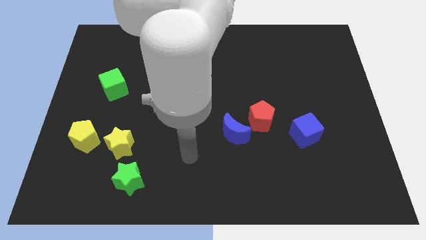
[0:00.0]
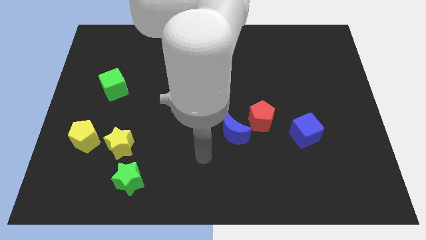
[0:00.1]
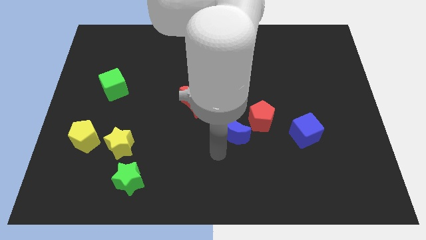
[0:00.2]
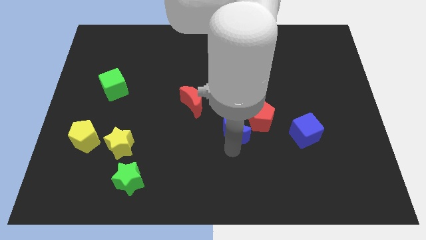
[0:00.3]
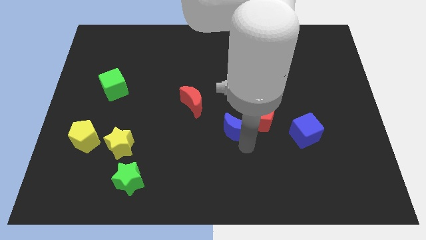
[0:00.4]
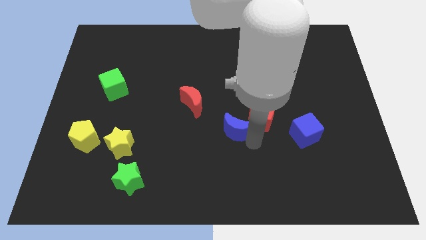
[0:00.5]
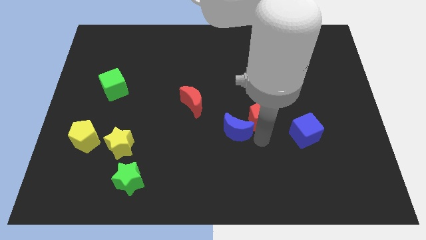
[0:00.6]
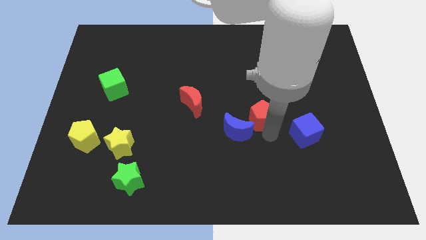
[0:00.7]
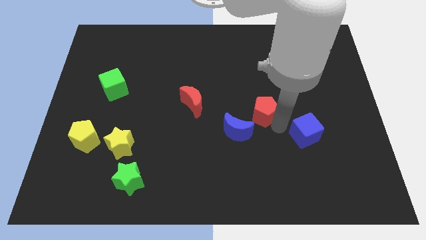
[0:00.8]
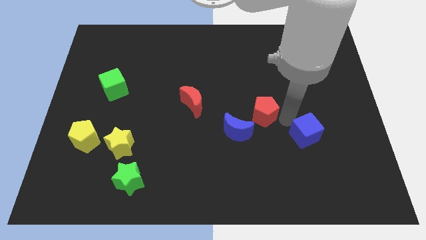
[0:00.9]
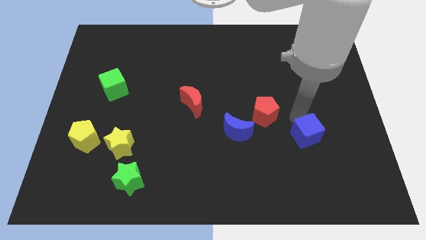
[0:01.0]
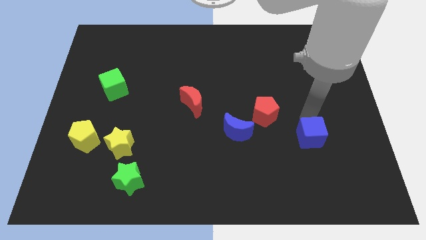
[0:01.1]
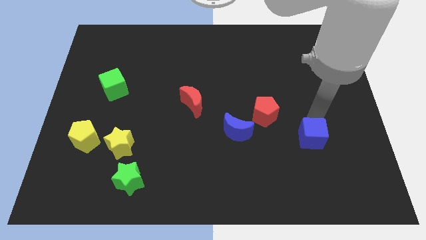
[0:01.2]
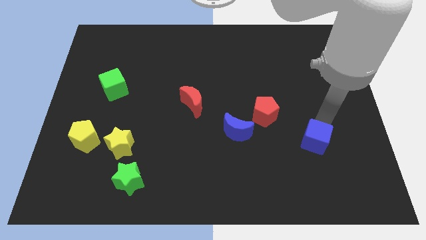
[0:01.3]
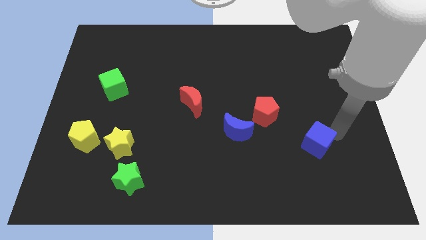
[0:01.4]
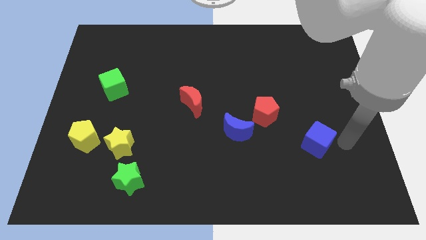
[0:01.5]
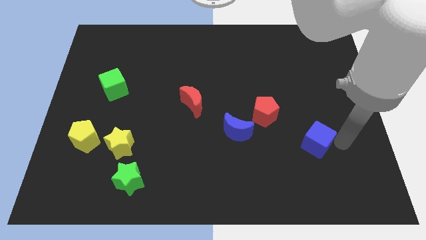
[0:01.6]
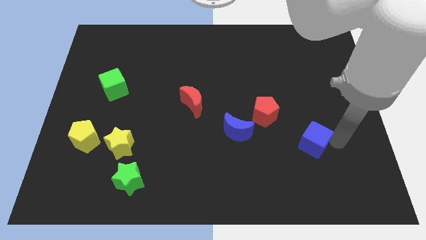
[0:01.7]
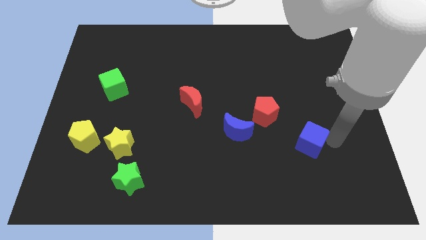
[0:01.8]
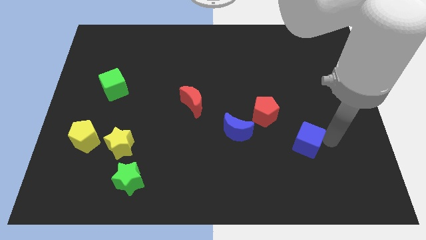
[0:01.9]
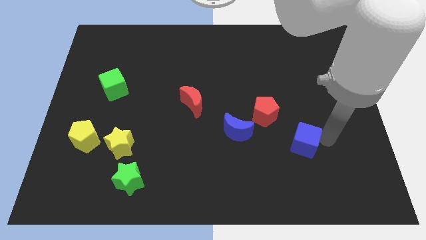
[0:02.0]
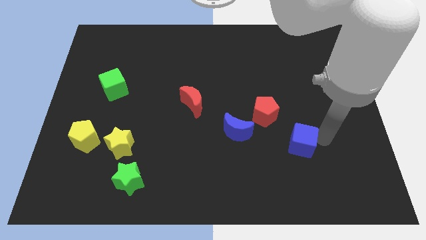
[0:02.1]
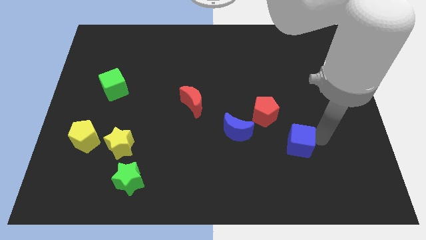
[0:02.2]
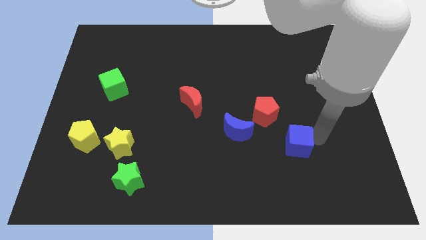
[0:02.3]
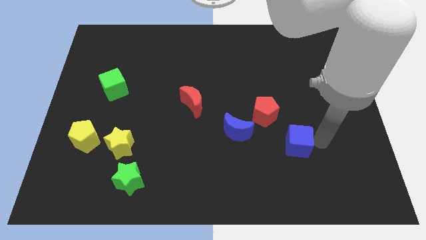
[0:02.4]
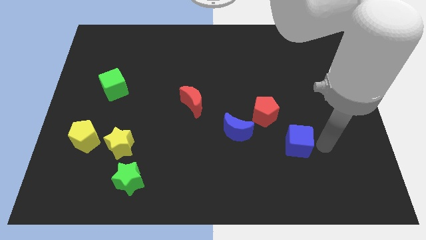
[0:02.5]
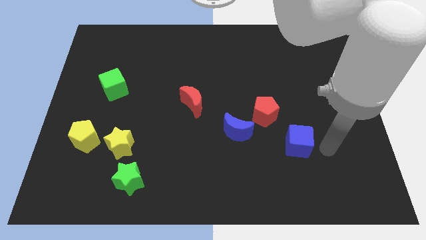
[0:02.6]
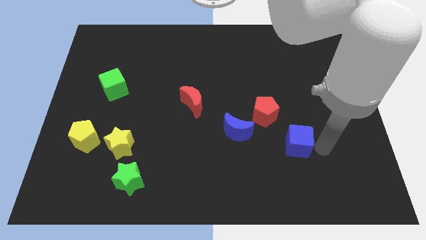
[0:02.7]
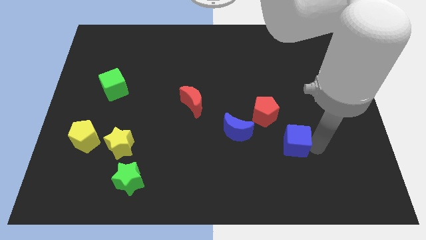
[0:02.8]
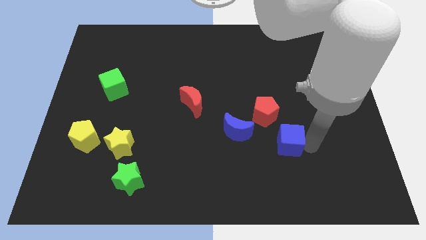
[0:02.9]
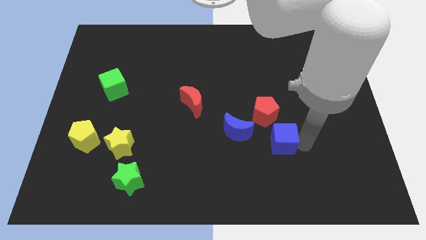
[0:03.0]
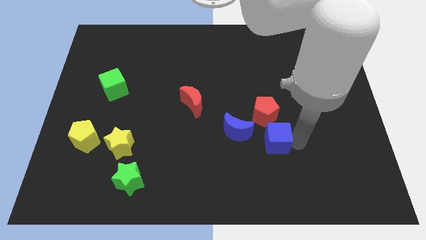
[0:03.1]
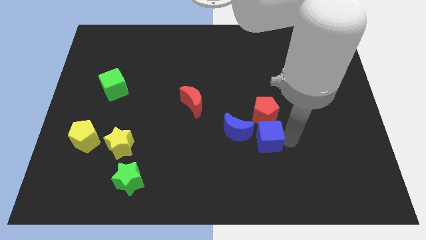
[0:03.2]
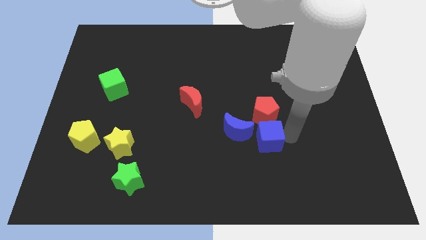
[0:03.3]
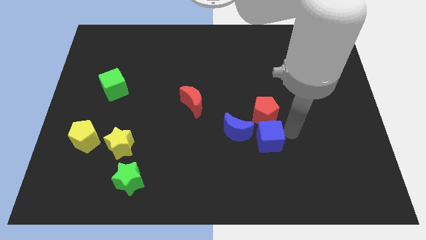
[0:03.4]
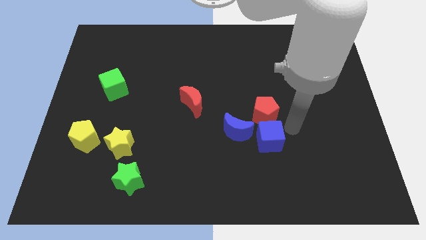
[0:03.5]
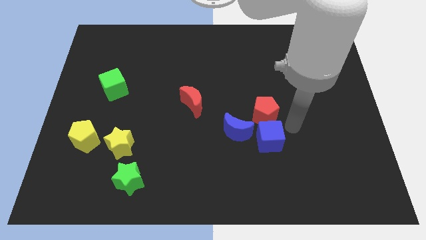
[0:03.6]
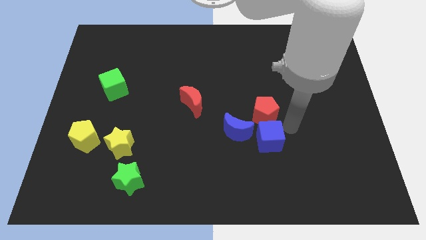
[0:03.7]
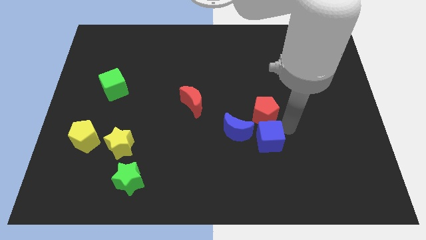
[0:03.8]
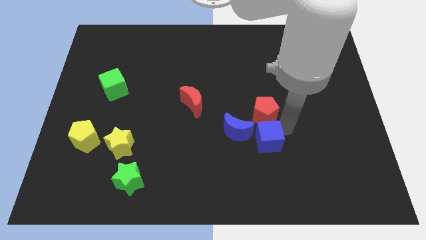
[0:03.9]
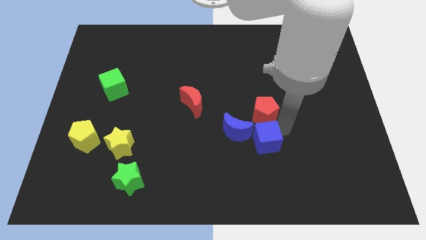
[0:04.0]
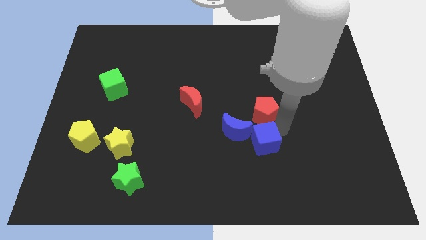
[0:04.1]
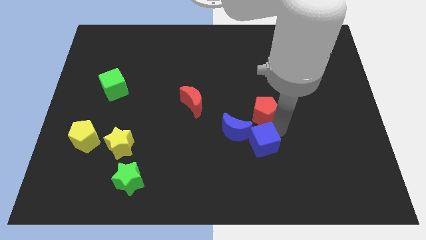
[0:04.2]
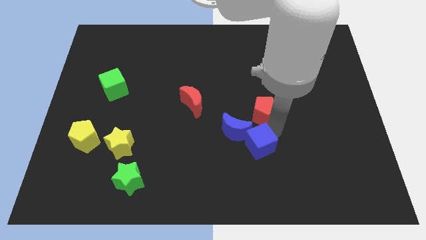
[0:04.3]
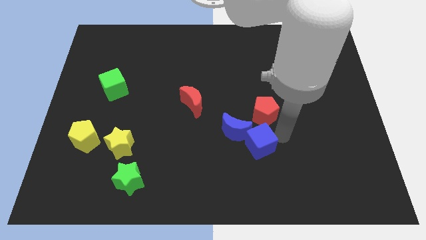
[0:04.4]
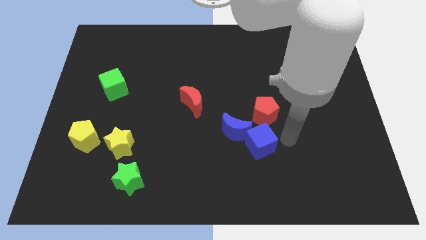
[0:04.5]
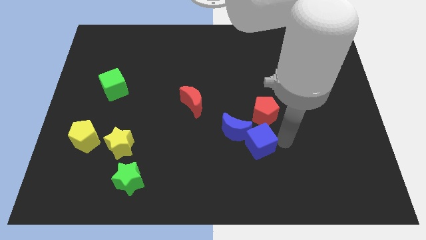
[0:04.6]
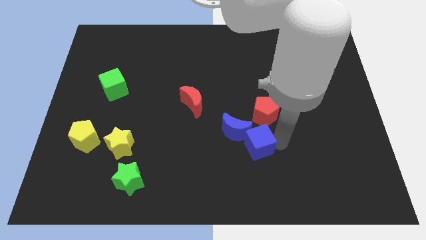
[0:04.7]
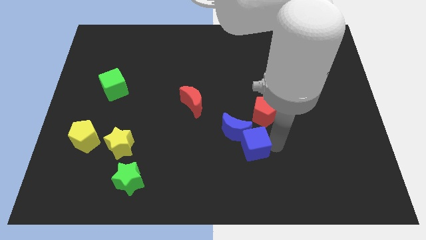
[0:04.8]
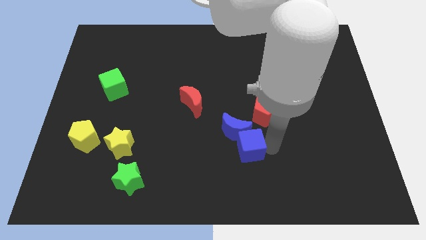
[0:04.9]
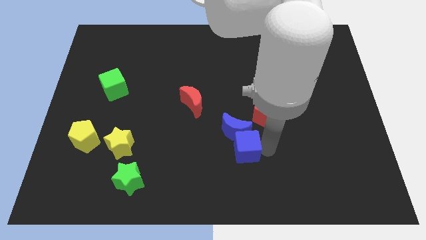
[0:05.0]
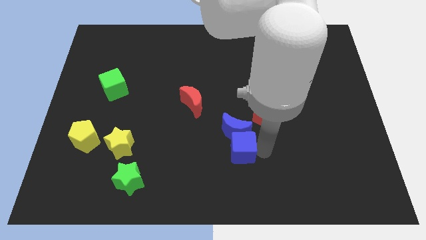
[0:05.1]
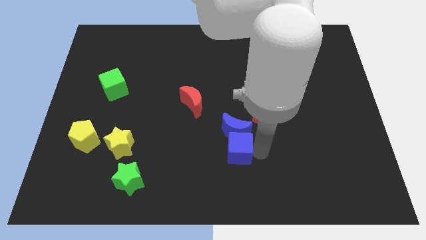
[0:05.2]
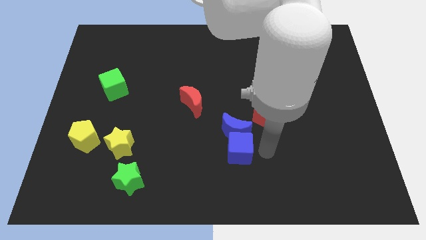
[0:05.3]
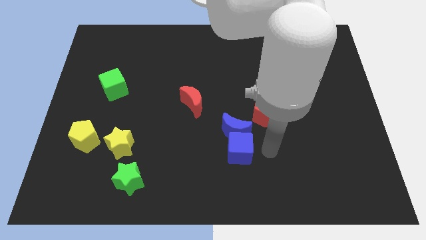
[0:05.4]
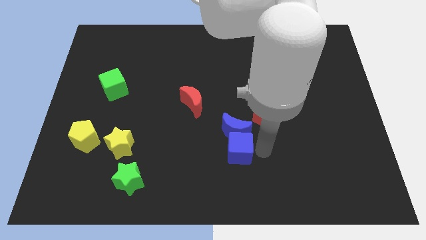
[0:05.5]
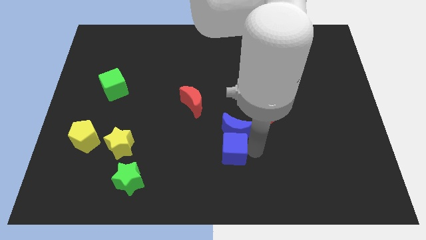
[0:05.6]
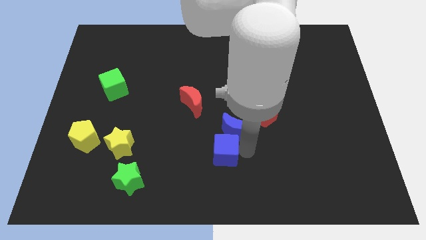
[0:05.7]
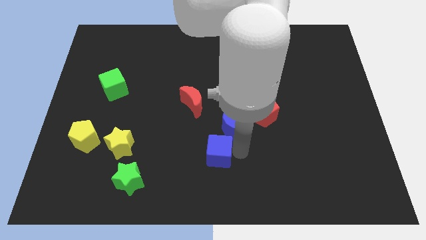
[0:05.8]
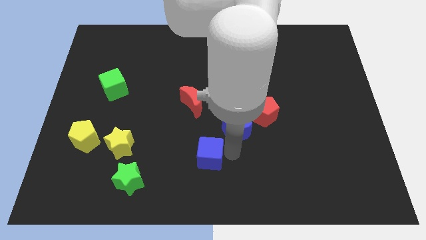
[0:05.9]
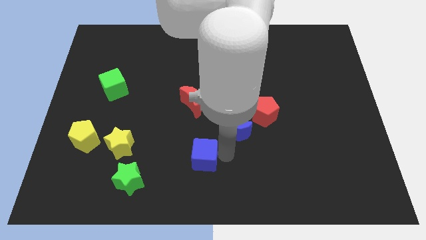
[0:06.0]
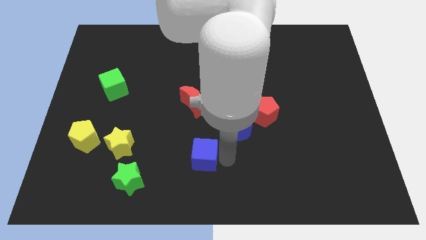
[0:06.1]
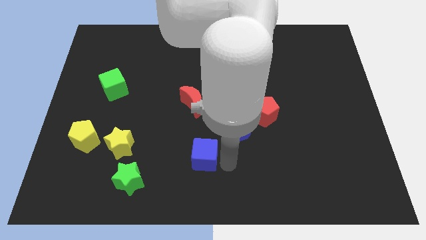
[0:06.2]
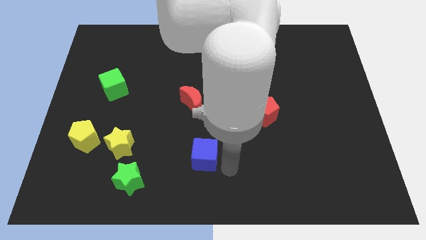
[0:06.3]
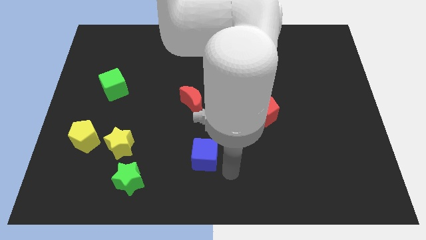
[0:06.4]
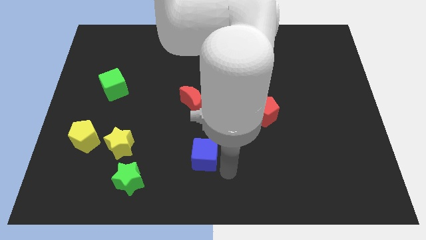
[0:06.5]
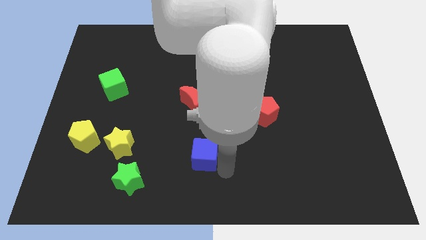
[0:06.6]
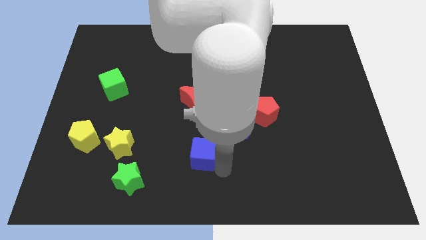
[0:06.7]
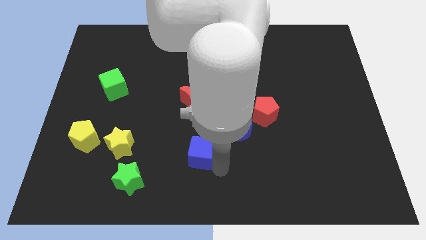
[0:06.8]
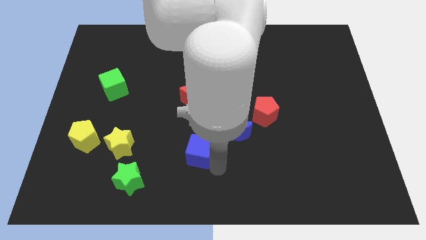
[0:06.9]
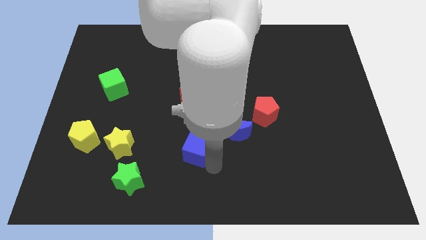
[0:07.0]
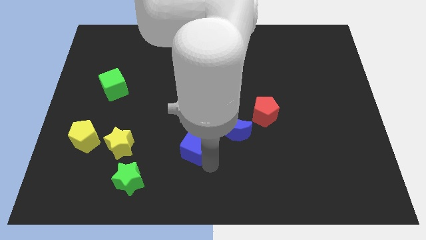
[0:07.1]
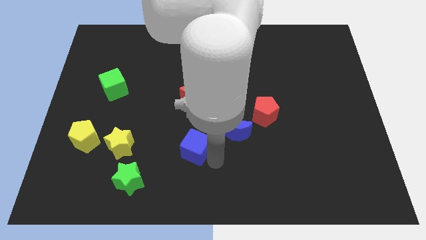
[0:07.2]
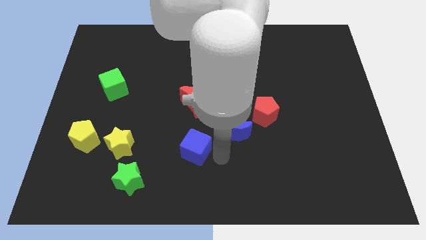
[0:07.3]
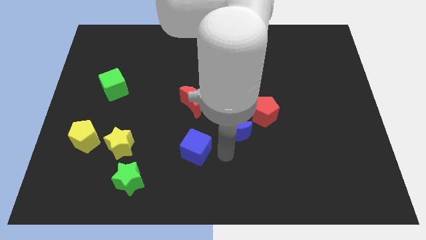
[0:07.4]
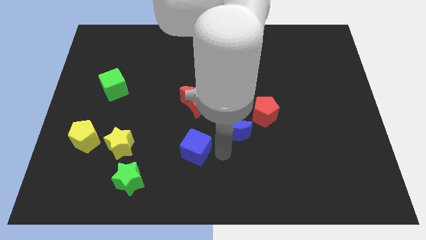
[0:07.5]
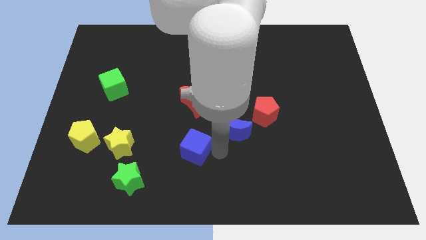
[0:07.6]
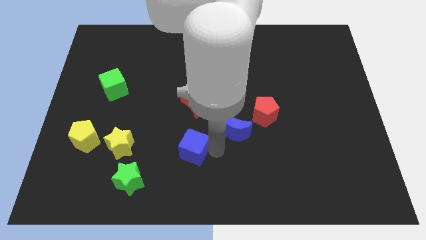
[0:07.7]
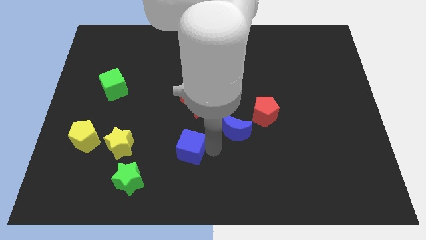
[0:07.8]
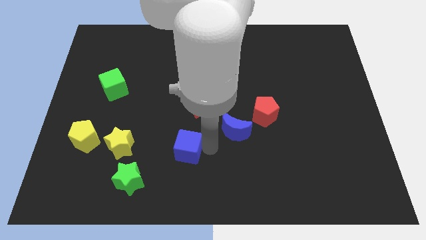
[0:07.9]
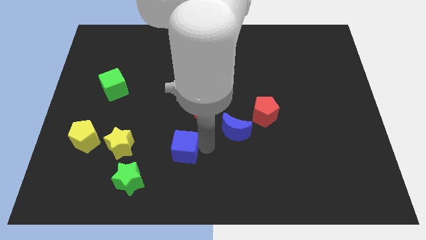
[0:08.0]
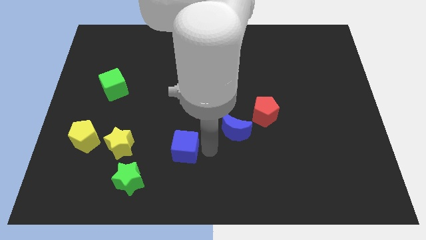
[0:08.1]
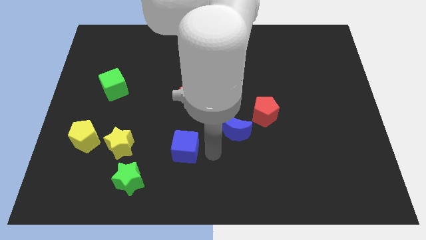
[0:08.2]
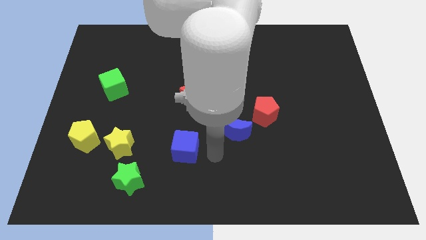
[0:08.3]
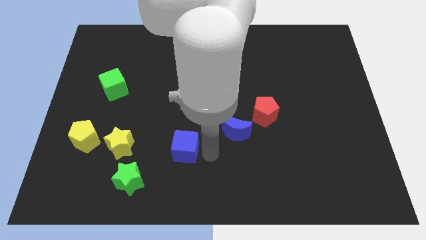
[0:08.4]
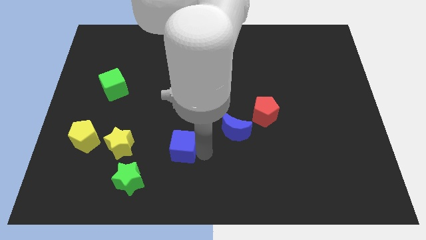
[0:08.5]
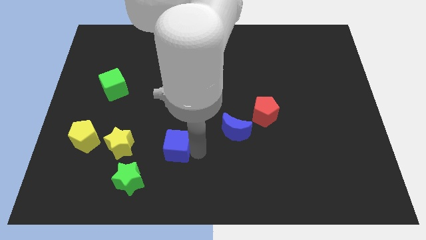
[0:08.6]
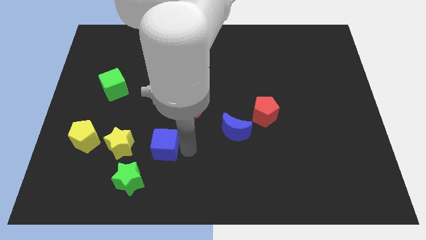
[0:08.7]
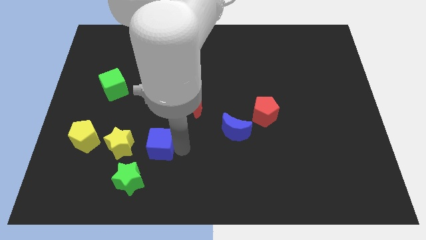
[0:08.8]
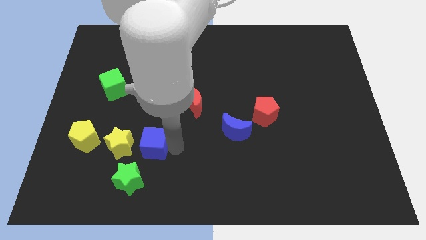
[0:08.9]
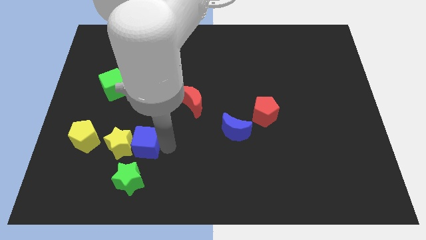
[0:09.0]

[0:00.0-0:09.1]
slide the blue cube next to the yellow star
